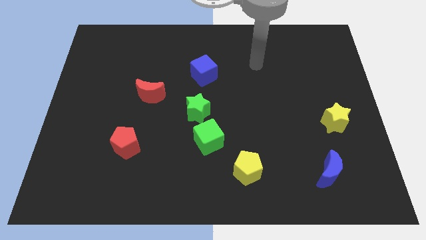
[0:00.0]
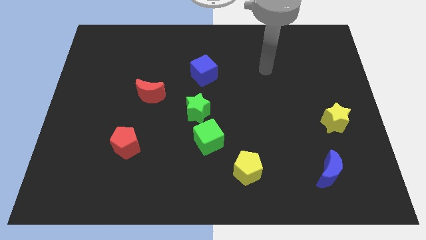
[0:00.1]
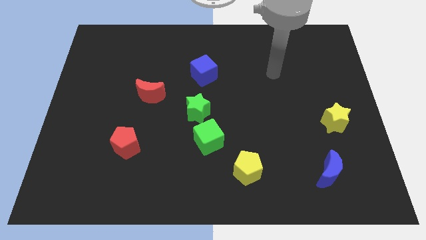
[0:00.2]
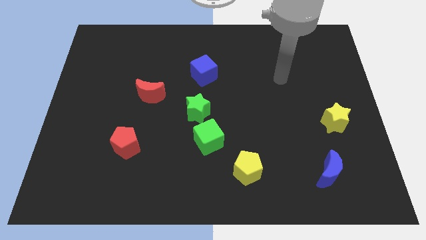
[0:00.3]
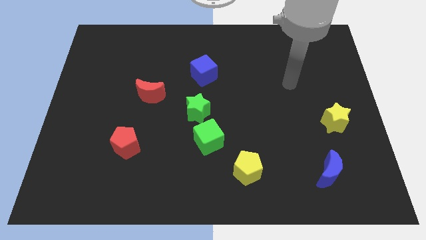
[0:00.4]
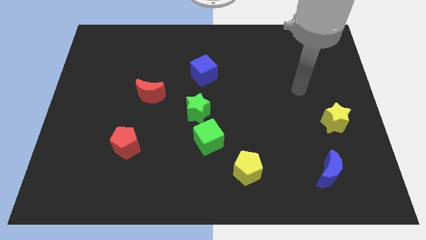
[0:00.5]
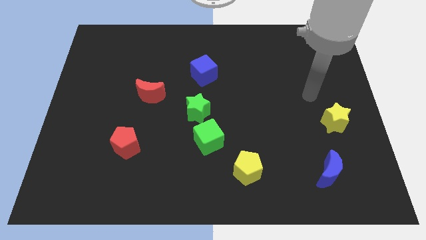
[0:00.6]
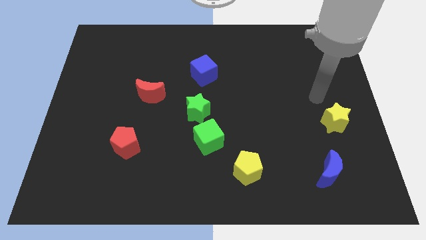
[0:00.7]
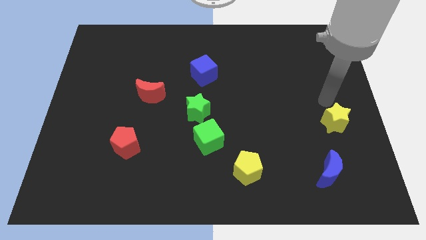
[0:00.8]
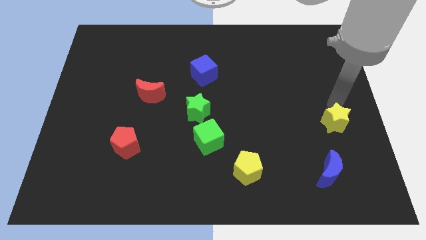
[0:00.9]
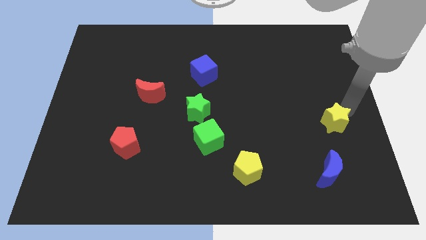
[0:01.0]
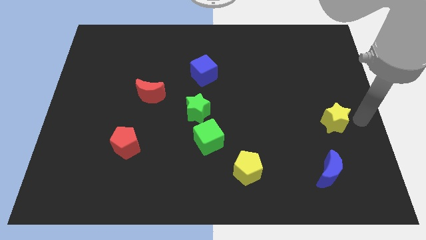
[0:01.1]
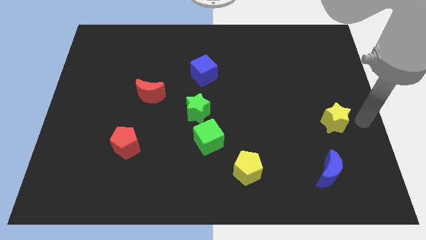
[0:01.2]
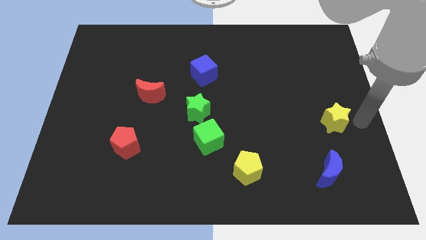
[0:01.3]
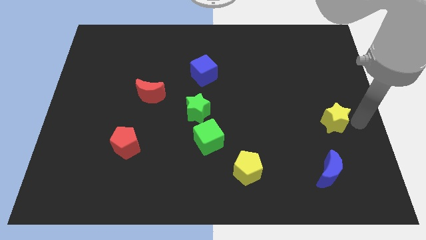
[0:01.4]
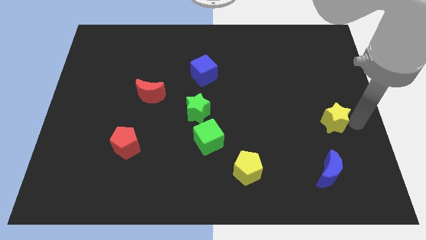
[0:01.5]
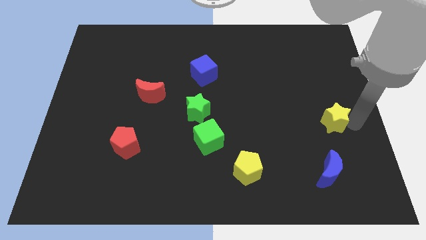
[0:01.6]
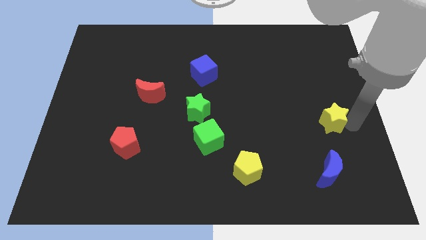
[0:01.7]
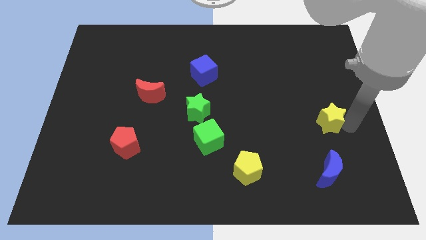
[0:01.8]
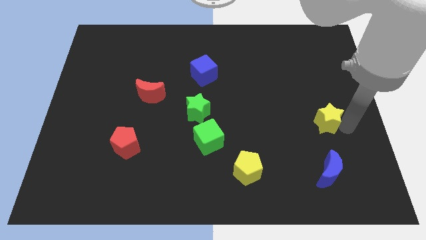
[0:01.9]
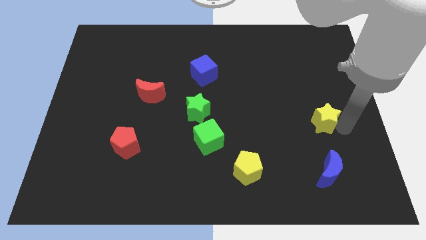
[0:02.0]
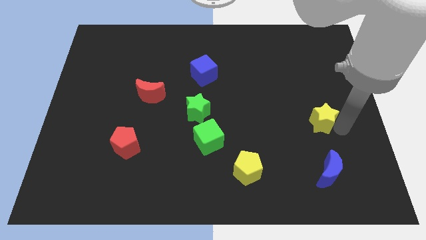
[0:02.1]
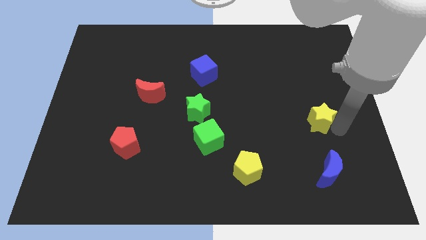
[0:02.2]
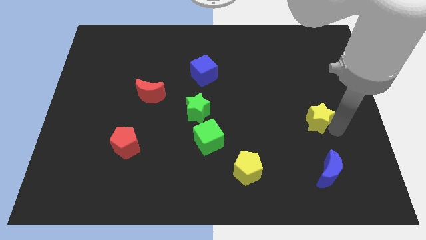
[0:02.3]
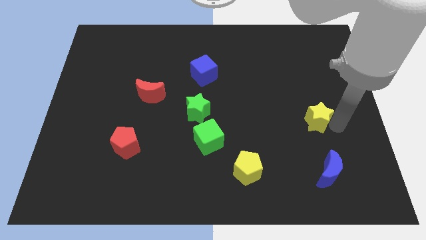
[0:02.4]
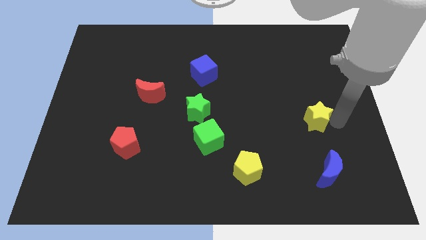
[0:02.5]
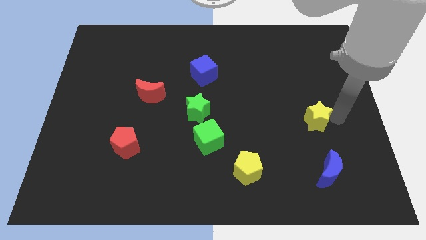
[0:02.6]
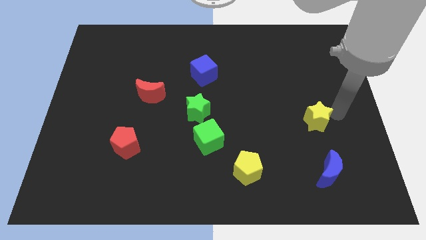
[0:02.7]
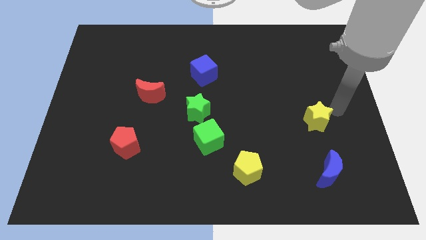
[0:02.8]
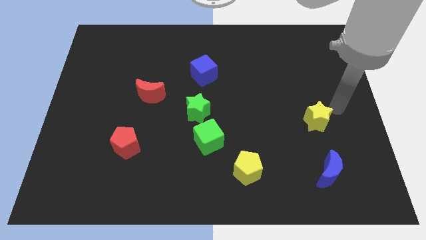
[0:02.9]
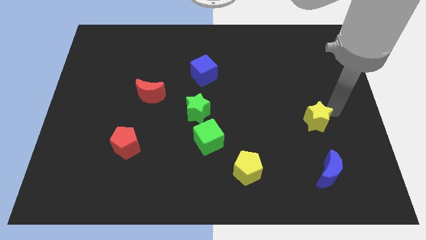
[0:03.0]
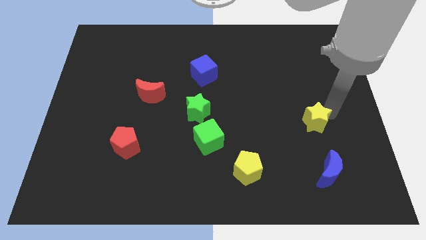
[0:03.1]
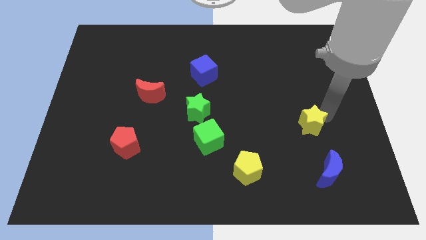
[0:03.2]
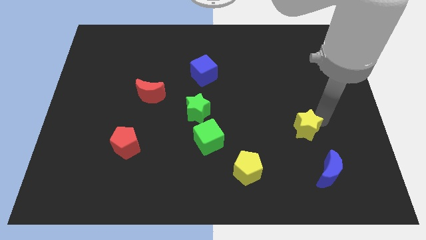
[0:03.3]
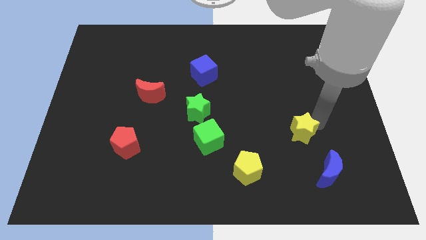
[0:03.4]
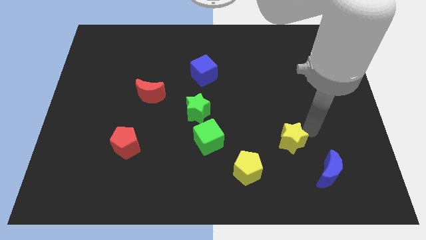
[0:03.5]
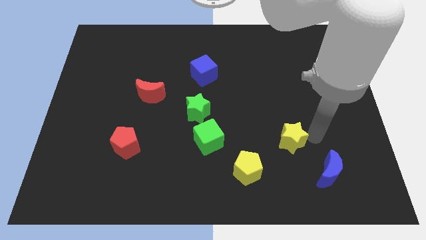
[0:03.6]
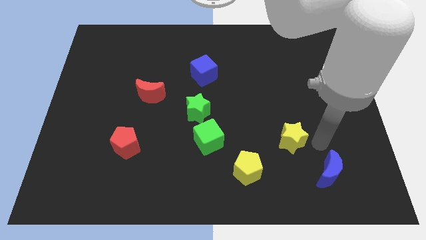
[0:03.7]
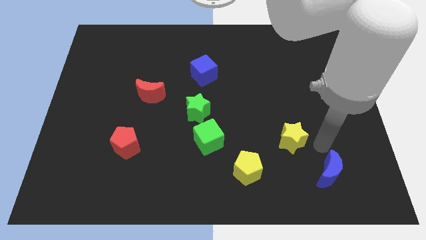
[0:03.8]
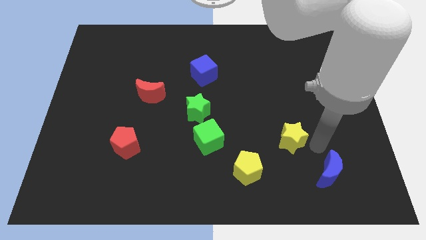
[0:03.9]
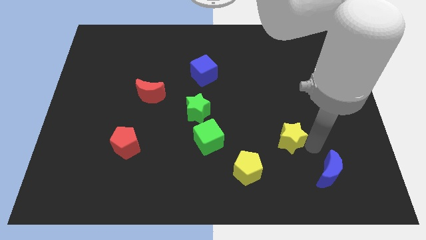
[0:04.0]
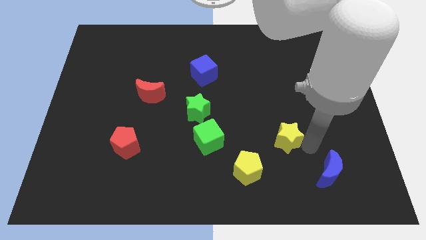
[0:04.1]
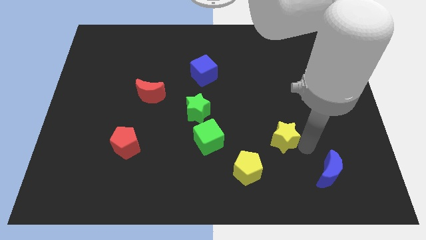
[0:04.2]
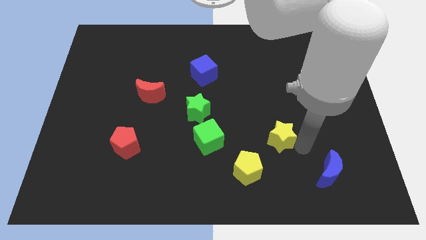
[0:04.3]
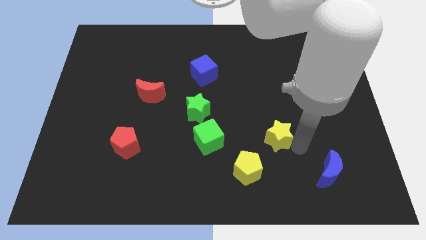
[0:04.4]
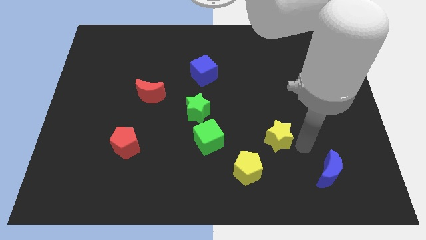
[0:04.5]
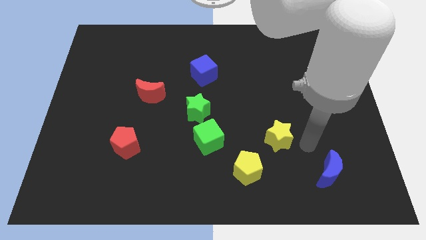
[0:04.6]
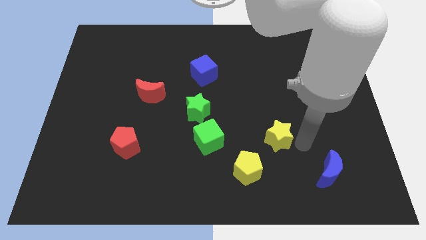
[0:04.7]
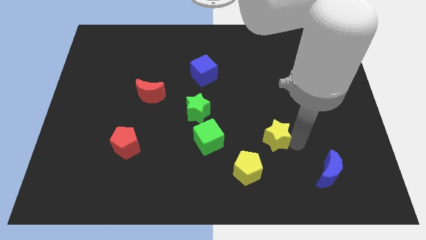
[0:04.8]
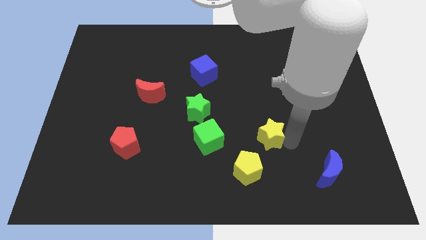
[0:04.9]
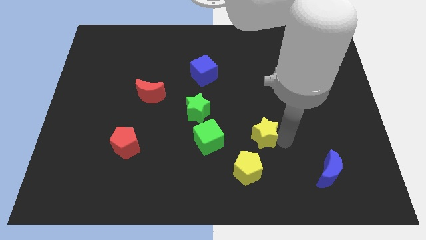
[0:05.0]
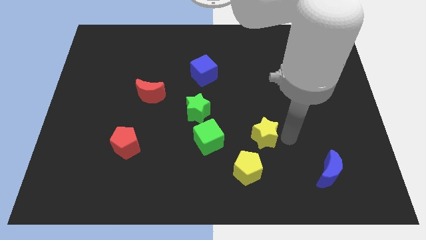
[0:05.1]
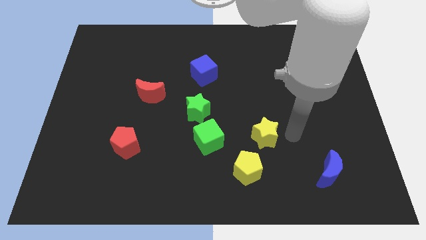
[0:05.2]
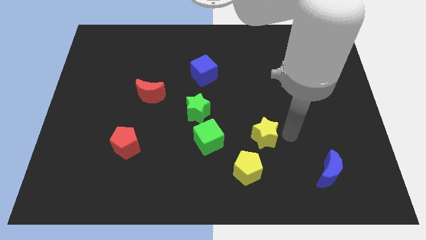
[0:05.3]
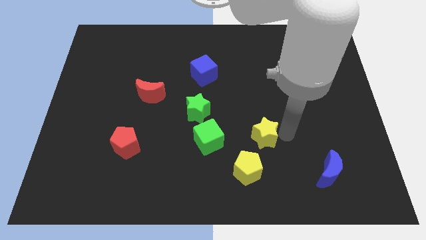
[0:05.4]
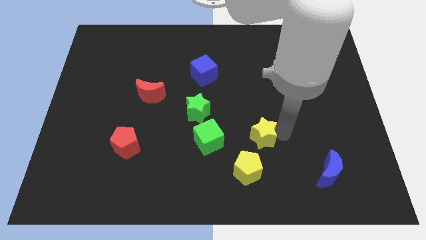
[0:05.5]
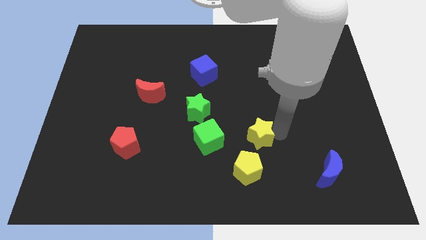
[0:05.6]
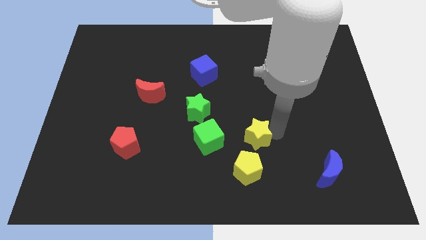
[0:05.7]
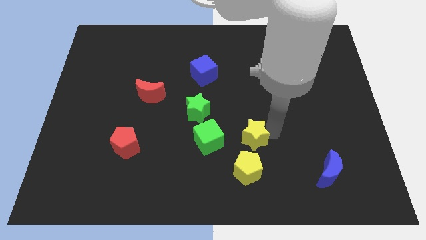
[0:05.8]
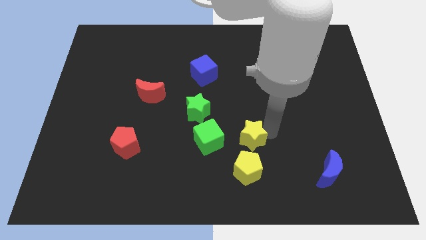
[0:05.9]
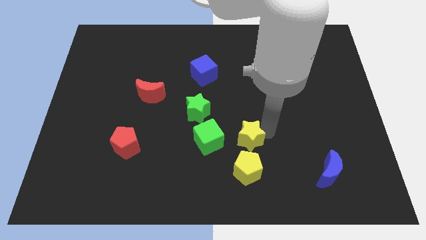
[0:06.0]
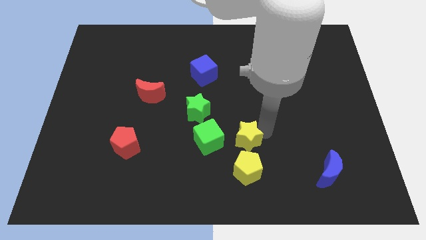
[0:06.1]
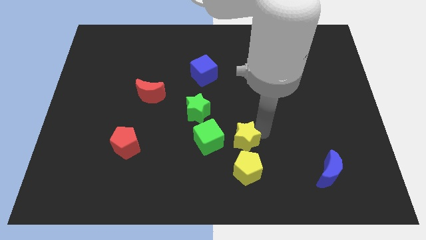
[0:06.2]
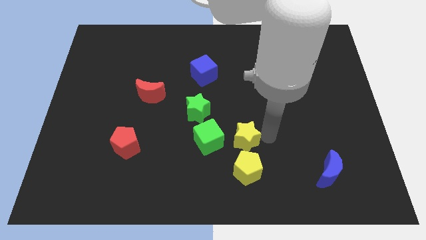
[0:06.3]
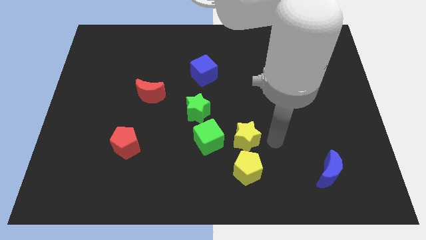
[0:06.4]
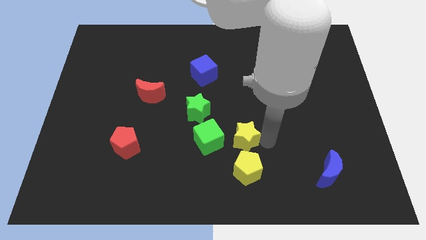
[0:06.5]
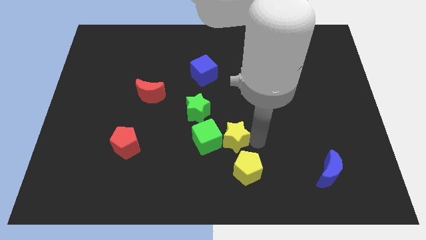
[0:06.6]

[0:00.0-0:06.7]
slide the yellow star towards the green cube

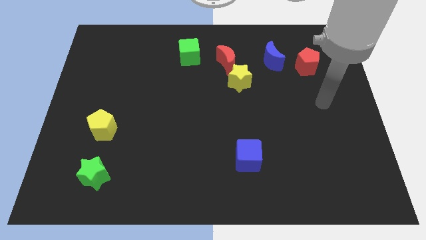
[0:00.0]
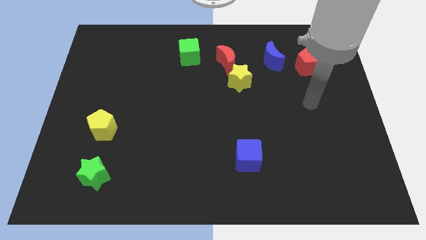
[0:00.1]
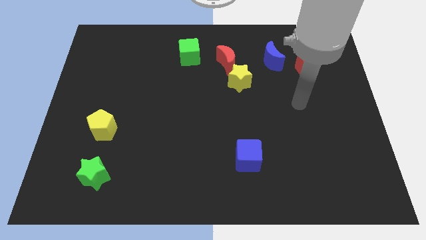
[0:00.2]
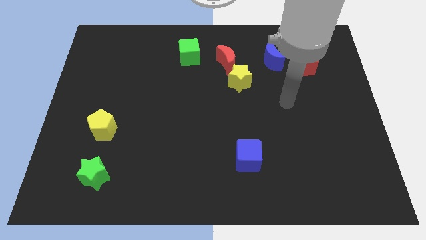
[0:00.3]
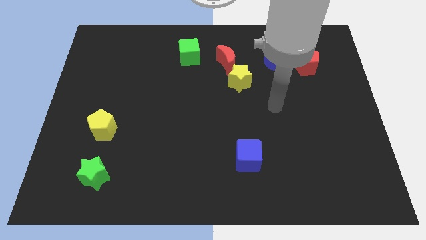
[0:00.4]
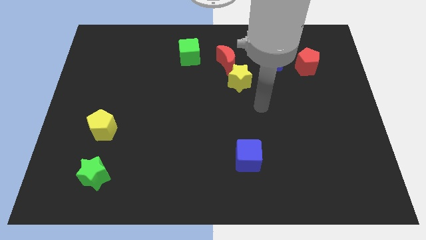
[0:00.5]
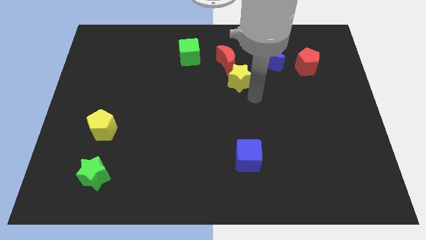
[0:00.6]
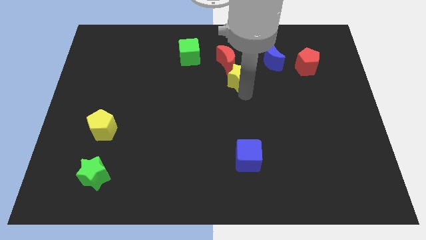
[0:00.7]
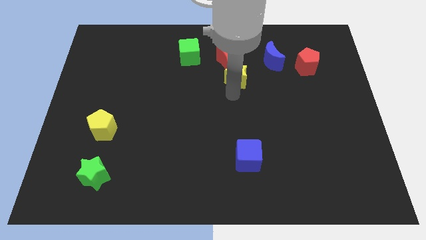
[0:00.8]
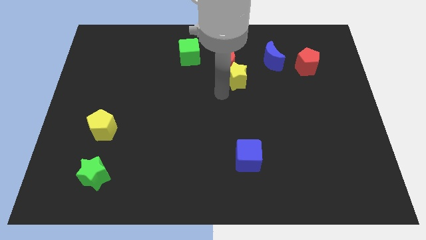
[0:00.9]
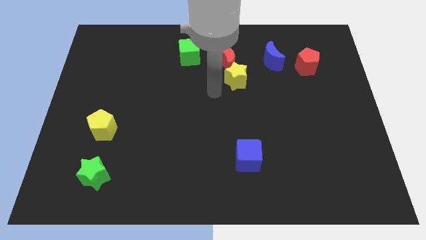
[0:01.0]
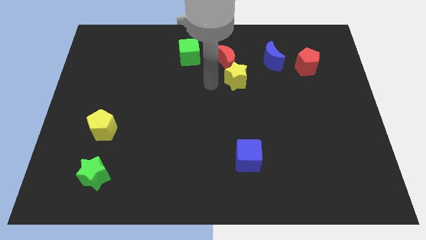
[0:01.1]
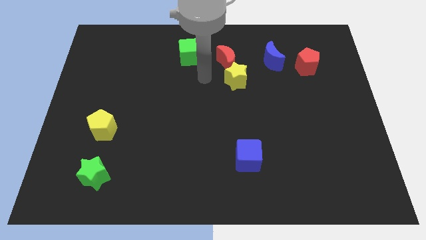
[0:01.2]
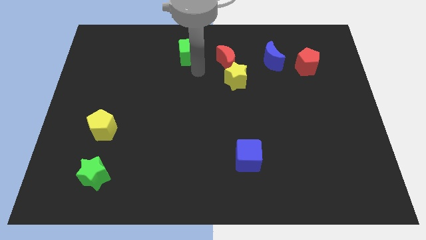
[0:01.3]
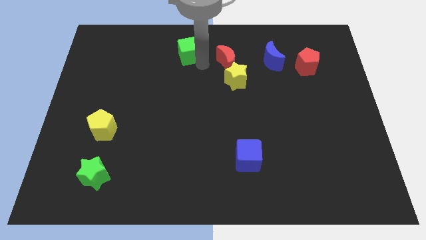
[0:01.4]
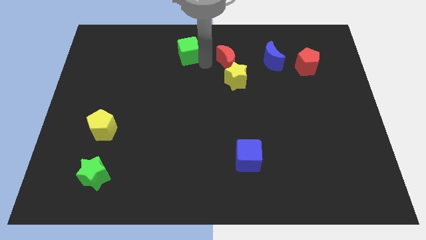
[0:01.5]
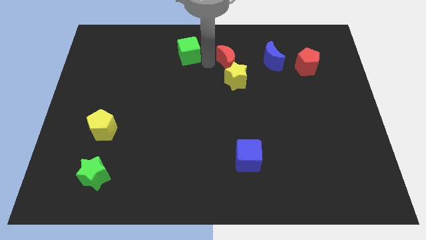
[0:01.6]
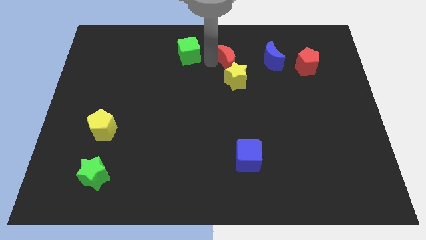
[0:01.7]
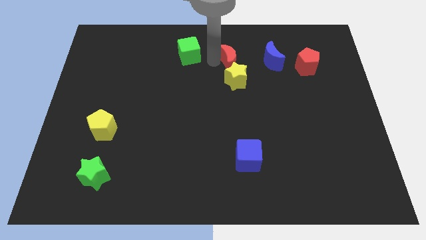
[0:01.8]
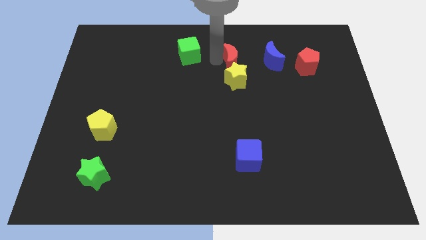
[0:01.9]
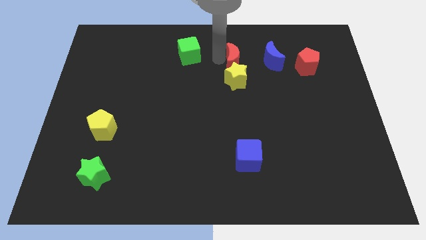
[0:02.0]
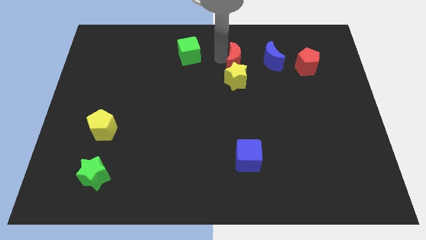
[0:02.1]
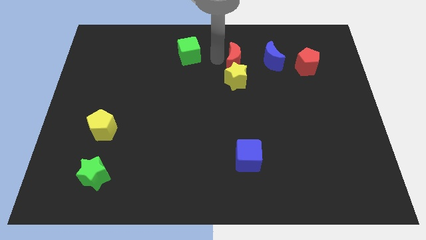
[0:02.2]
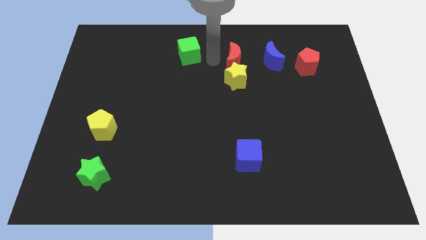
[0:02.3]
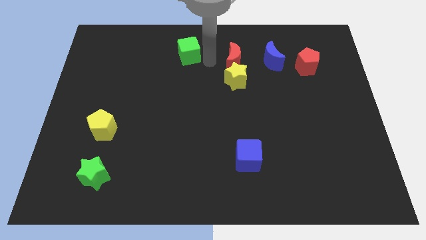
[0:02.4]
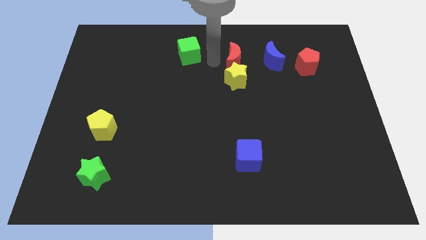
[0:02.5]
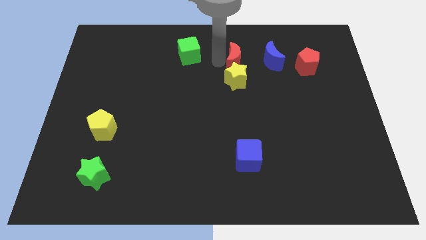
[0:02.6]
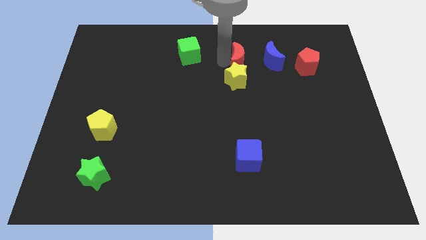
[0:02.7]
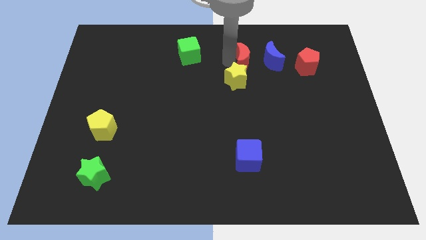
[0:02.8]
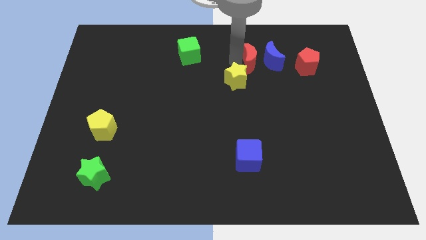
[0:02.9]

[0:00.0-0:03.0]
move the red moon next to the blue moon
